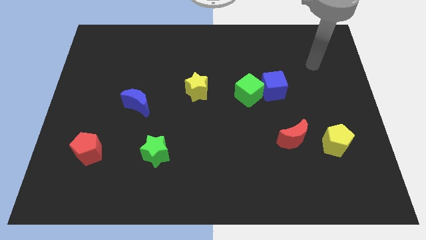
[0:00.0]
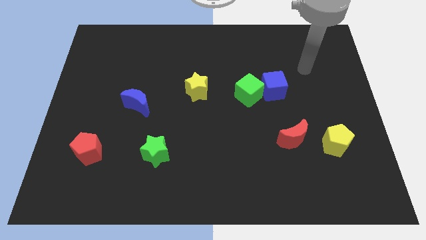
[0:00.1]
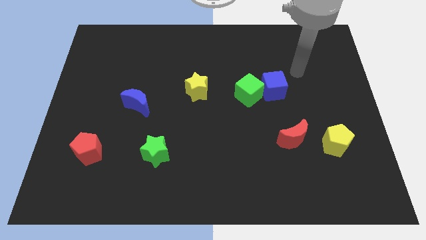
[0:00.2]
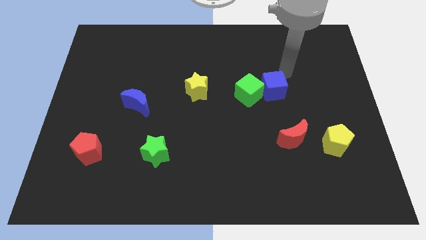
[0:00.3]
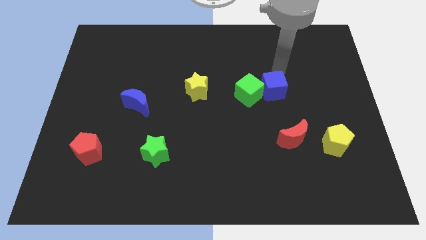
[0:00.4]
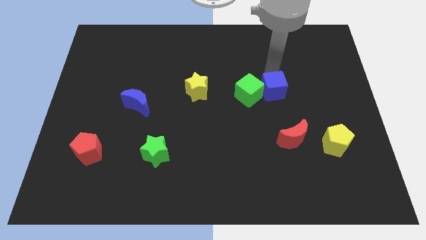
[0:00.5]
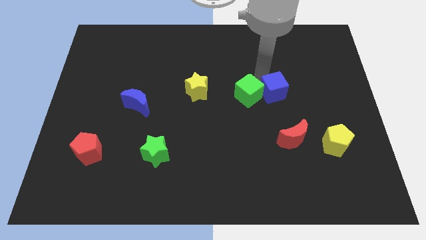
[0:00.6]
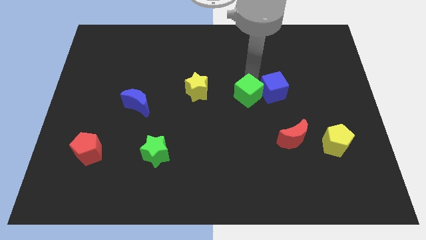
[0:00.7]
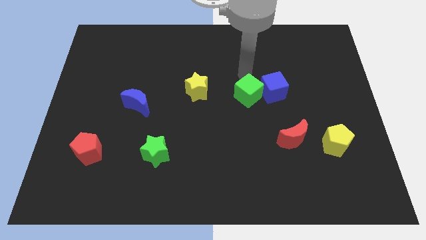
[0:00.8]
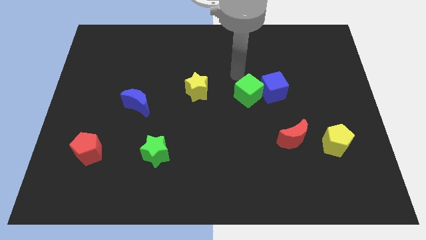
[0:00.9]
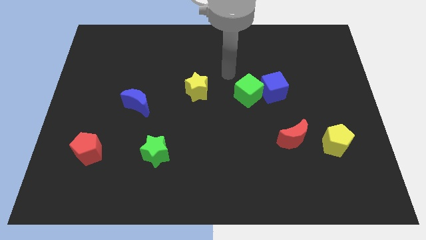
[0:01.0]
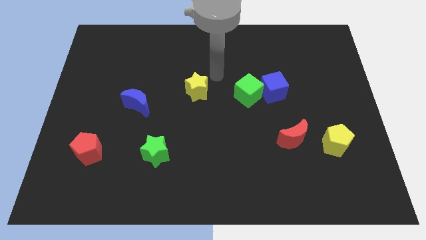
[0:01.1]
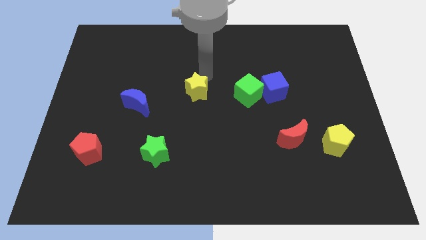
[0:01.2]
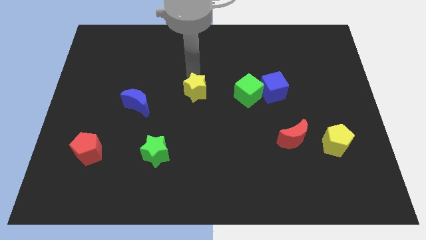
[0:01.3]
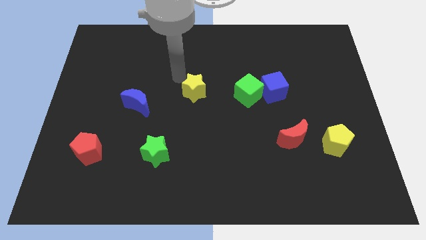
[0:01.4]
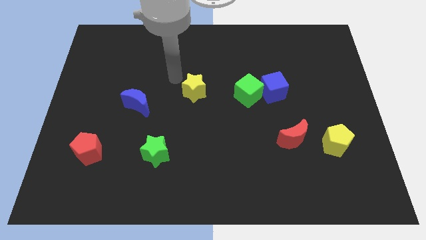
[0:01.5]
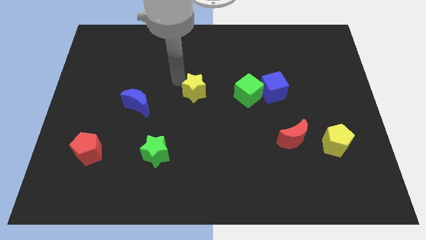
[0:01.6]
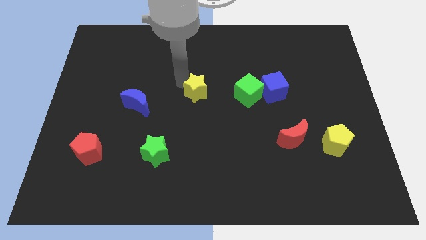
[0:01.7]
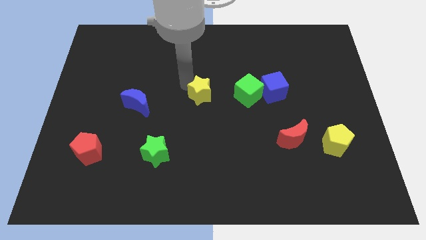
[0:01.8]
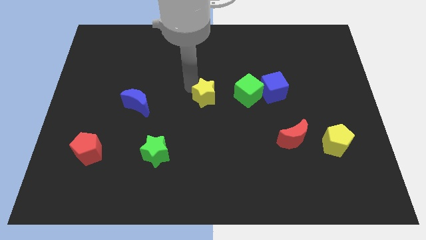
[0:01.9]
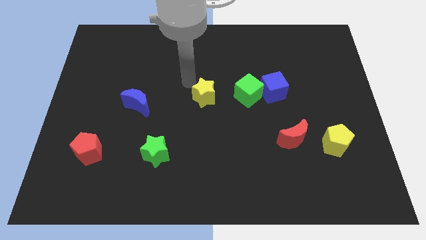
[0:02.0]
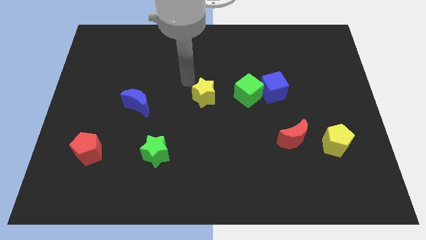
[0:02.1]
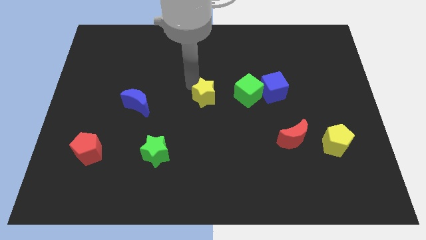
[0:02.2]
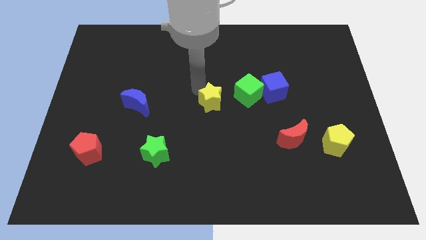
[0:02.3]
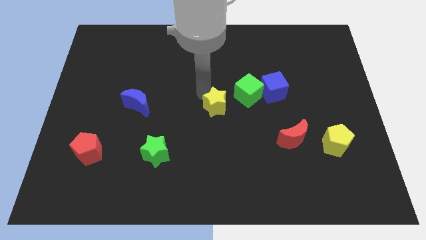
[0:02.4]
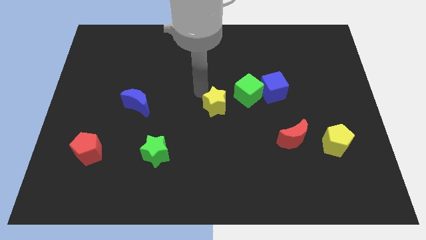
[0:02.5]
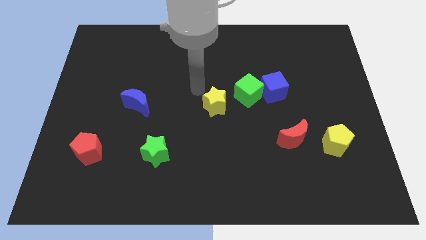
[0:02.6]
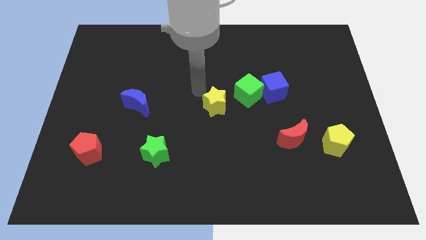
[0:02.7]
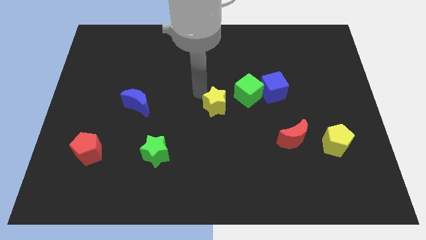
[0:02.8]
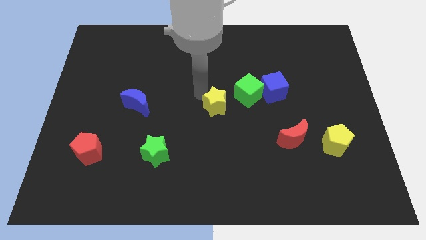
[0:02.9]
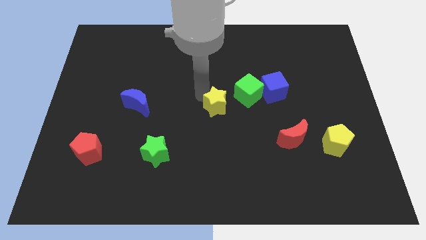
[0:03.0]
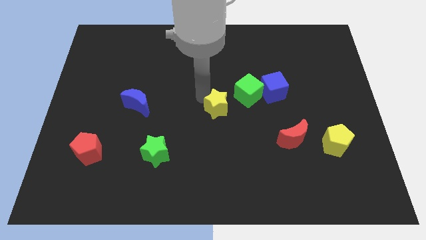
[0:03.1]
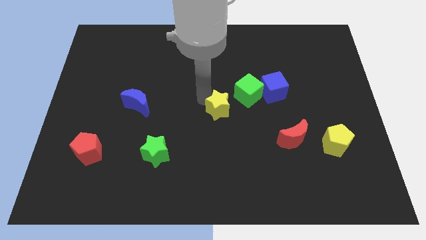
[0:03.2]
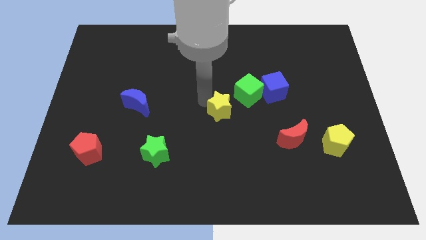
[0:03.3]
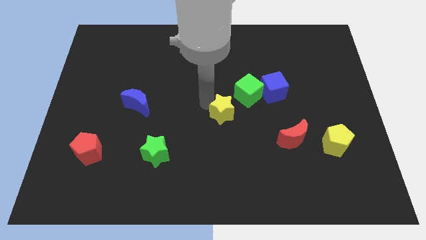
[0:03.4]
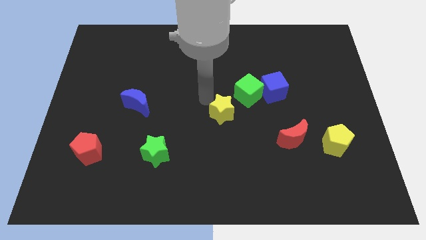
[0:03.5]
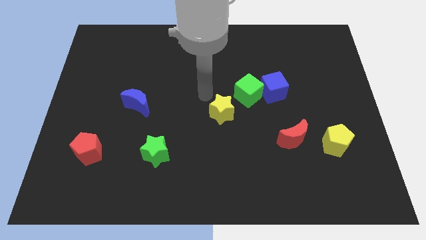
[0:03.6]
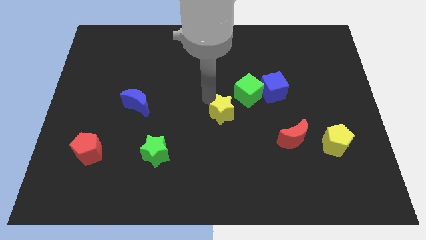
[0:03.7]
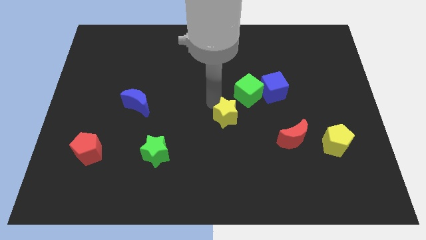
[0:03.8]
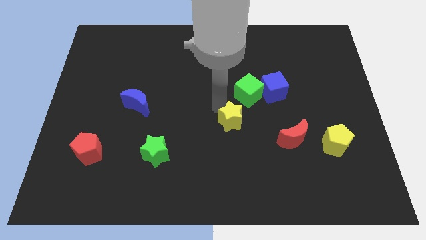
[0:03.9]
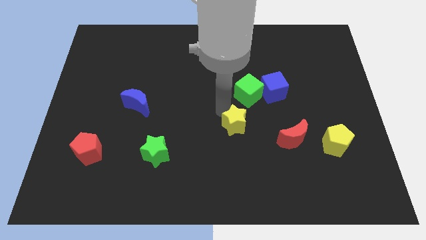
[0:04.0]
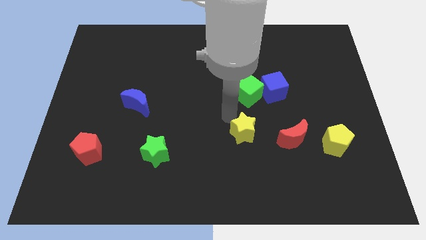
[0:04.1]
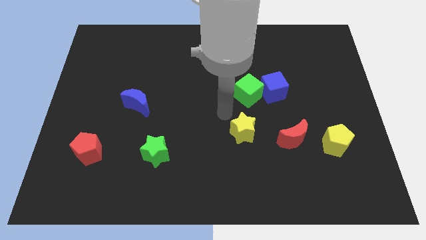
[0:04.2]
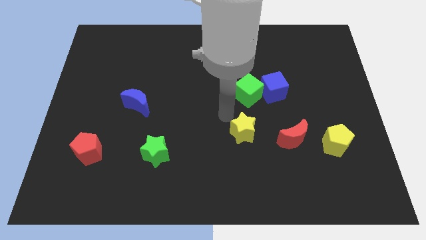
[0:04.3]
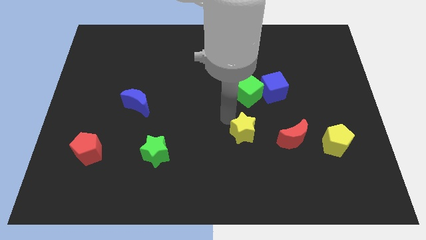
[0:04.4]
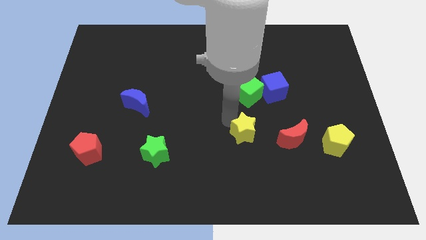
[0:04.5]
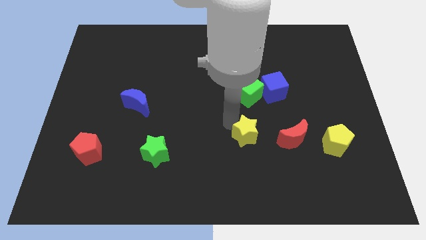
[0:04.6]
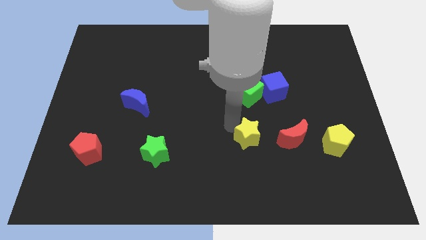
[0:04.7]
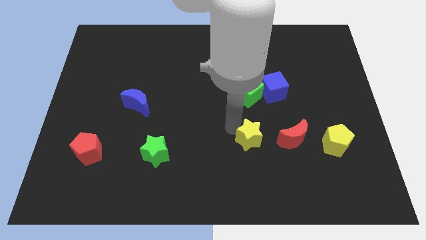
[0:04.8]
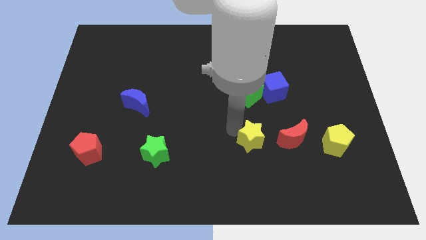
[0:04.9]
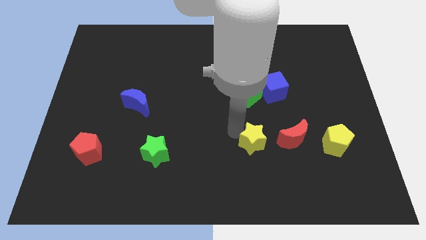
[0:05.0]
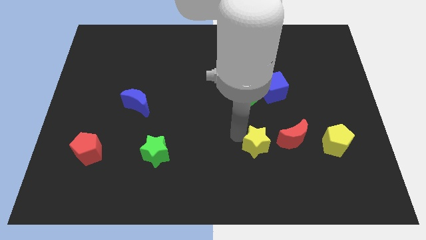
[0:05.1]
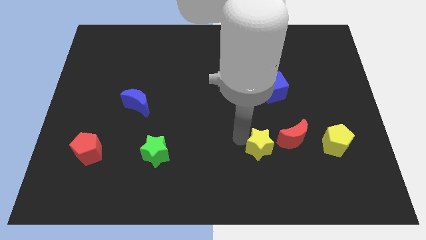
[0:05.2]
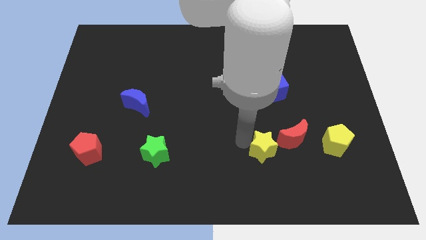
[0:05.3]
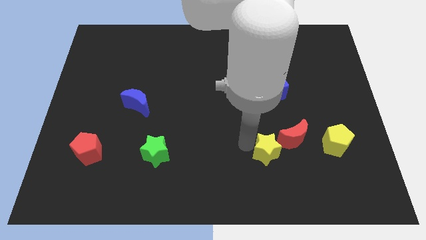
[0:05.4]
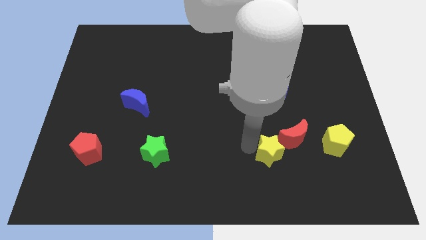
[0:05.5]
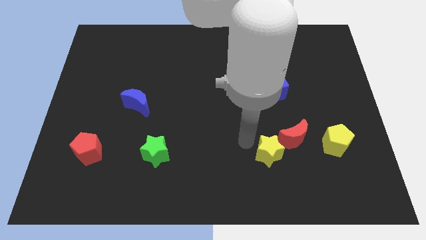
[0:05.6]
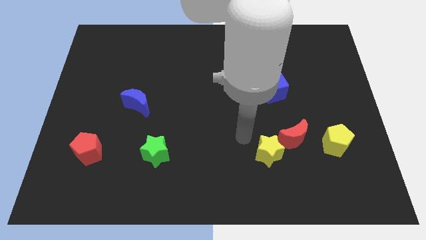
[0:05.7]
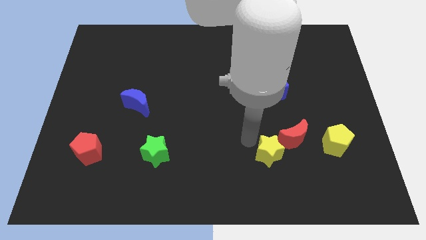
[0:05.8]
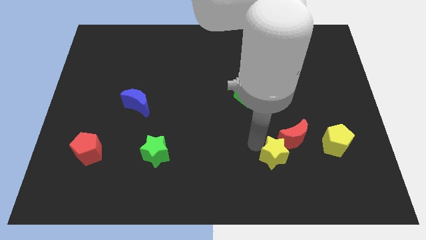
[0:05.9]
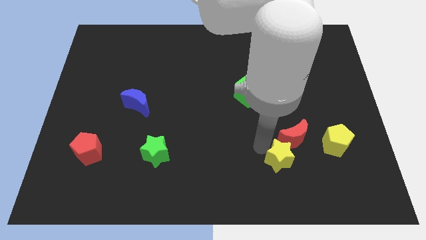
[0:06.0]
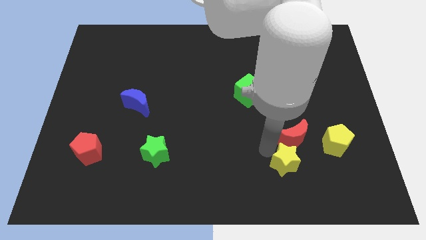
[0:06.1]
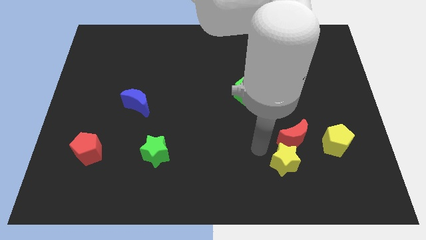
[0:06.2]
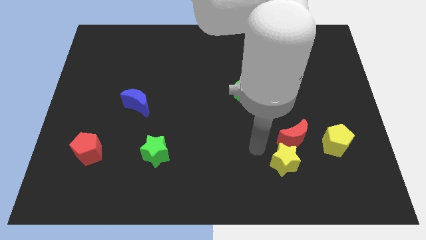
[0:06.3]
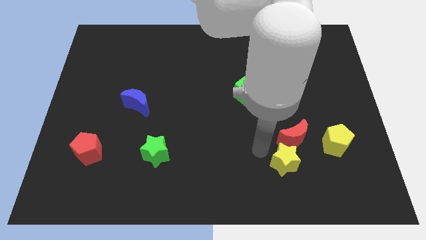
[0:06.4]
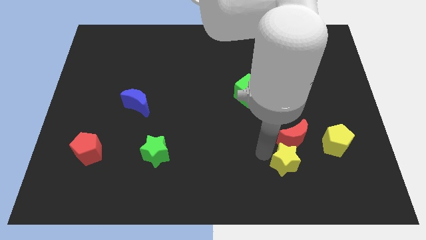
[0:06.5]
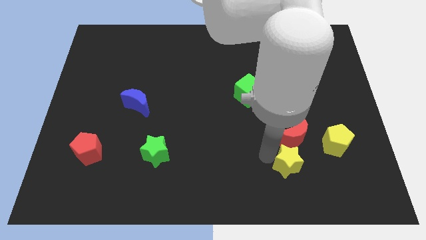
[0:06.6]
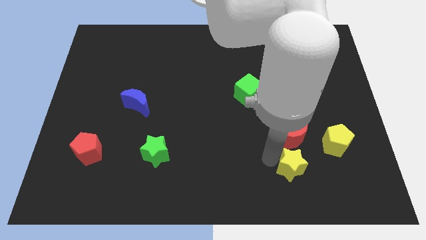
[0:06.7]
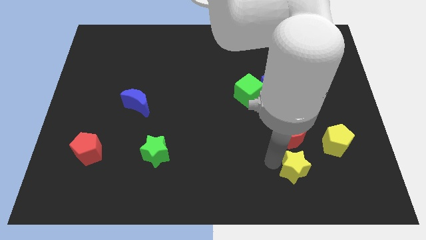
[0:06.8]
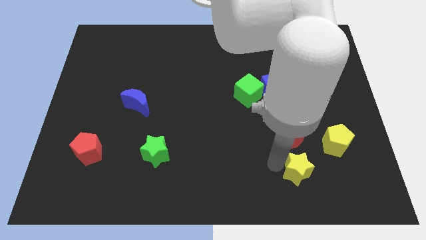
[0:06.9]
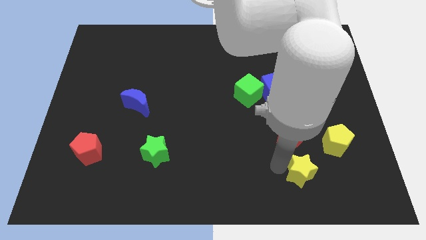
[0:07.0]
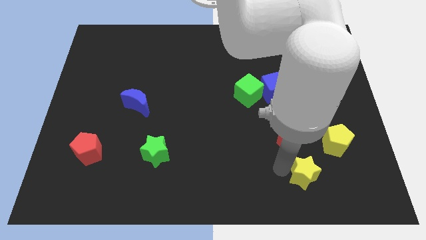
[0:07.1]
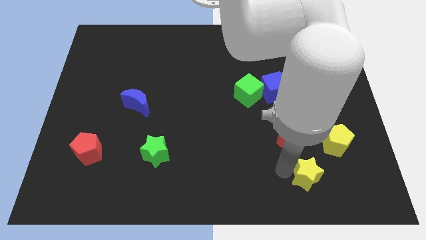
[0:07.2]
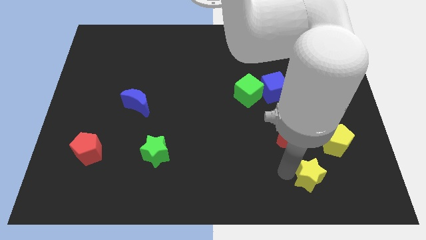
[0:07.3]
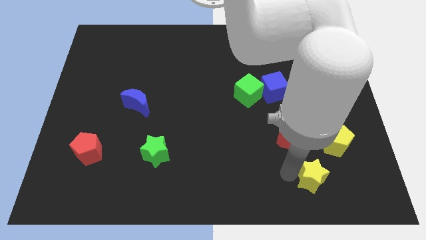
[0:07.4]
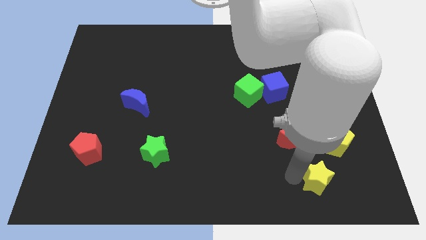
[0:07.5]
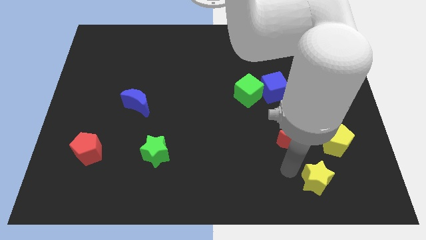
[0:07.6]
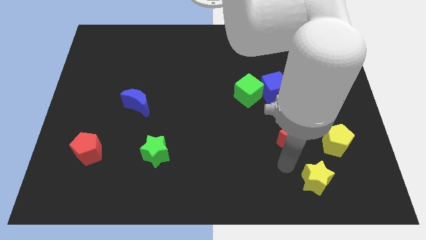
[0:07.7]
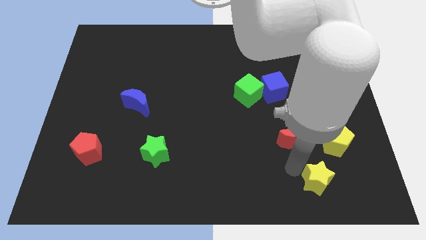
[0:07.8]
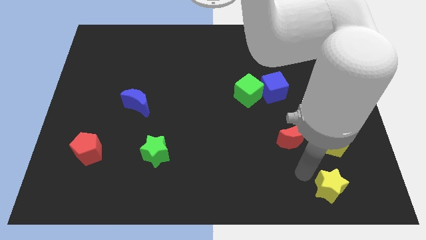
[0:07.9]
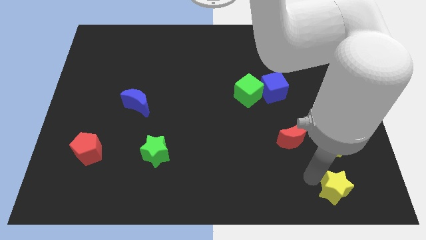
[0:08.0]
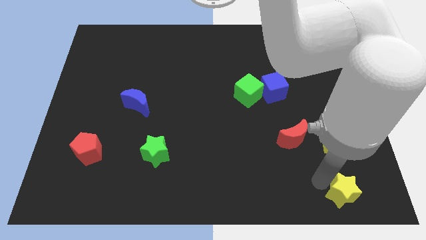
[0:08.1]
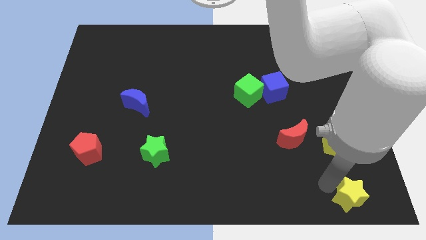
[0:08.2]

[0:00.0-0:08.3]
put the yellow star to the lower right corner
